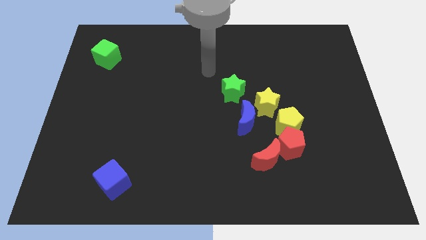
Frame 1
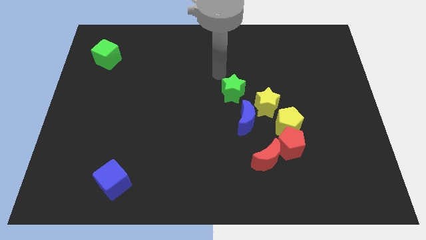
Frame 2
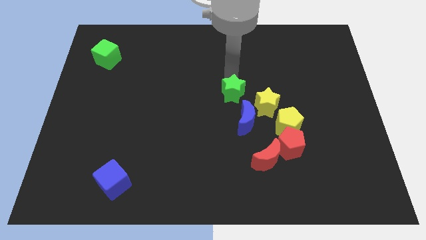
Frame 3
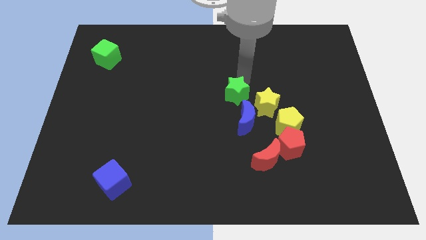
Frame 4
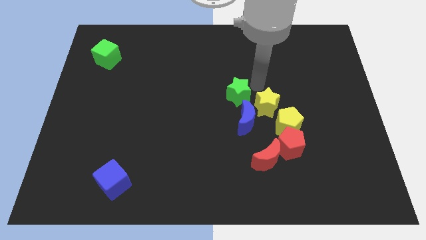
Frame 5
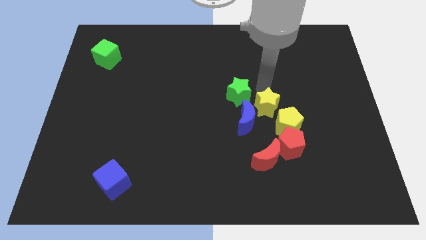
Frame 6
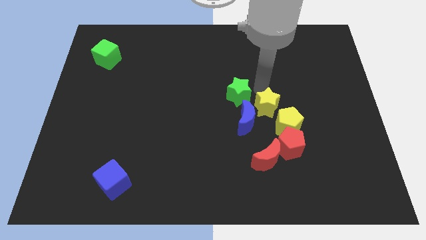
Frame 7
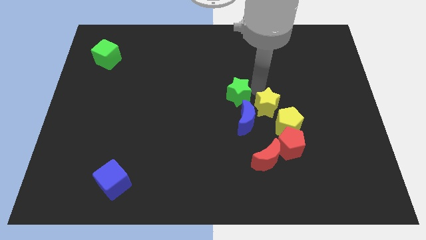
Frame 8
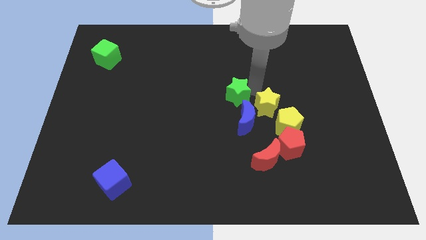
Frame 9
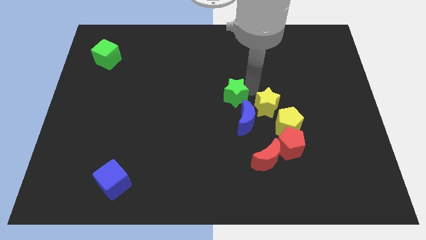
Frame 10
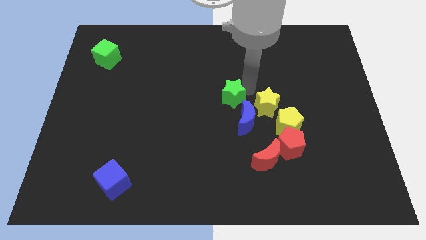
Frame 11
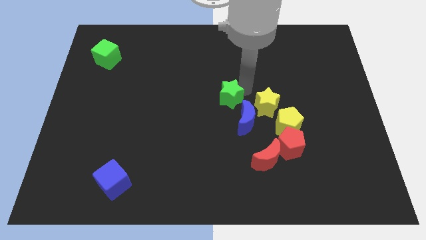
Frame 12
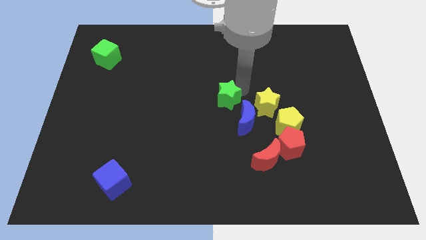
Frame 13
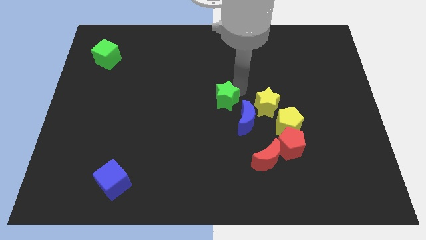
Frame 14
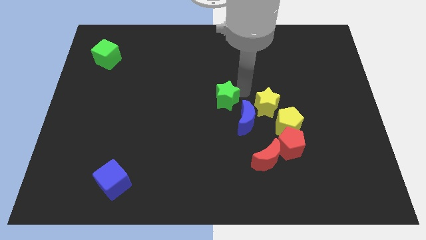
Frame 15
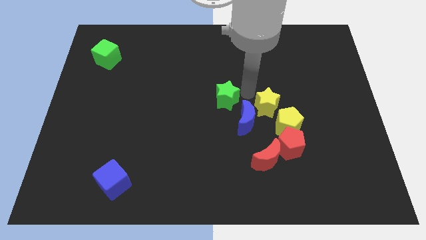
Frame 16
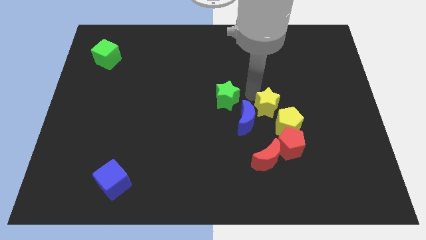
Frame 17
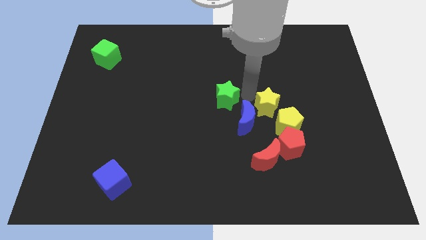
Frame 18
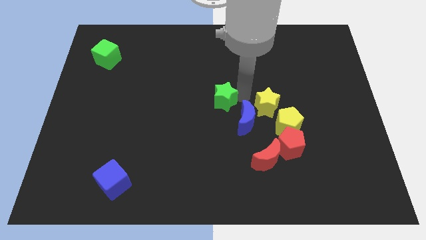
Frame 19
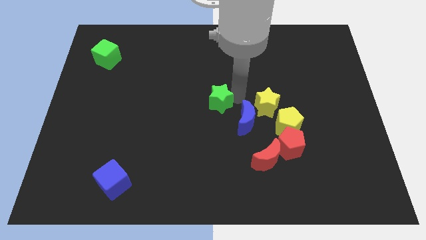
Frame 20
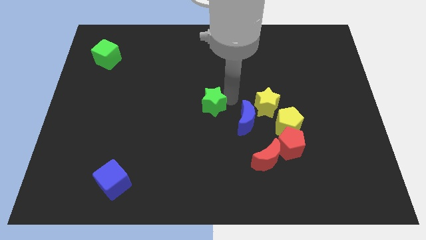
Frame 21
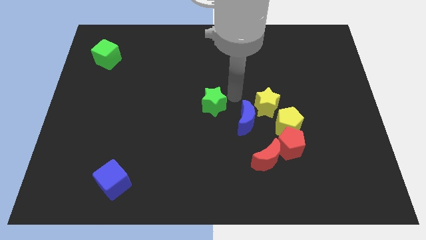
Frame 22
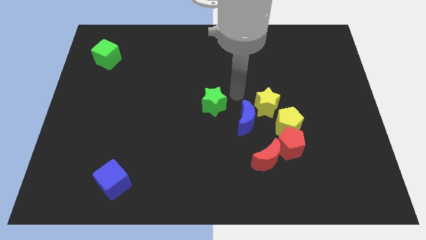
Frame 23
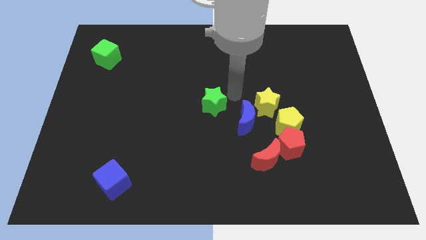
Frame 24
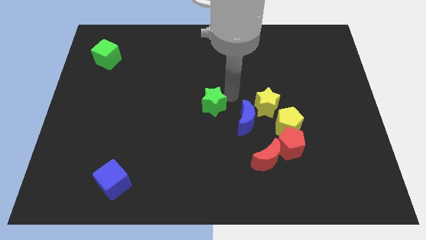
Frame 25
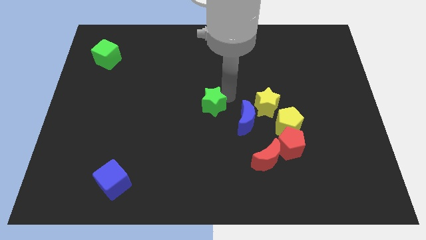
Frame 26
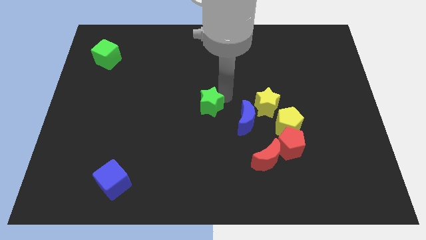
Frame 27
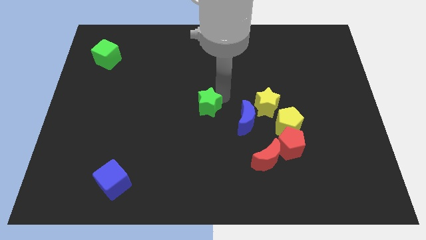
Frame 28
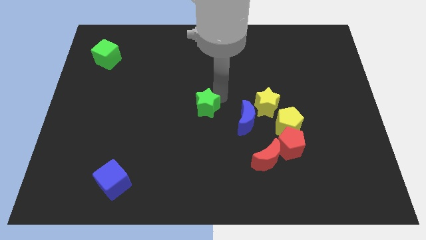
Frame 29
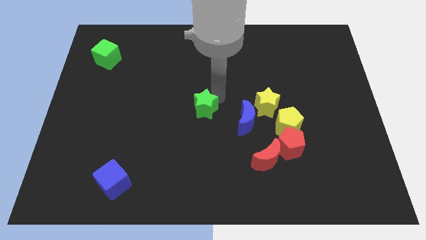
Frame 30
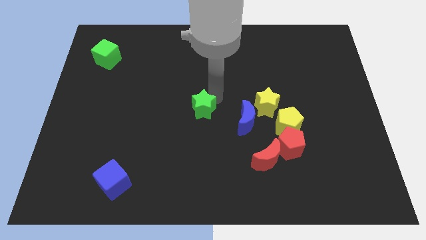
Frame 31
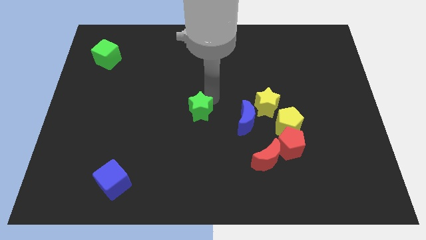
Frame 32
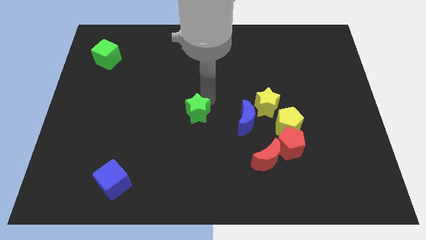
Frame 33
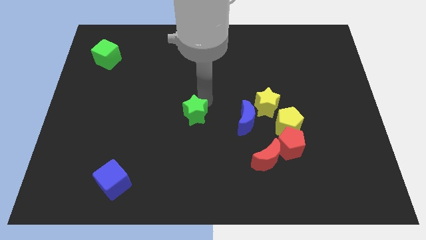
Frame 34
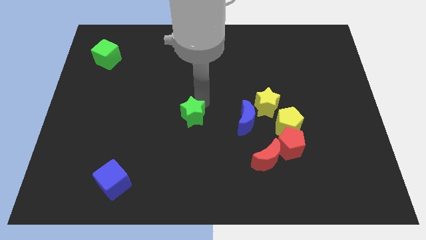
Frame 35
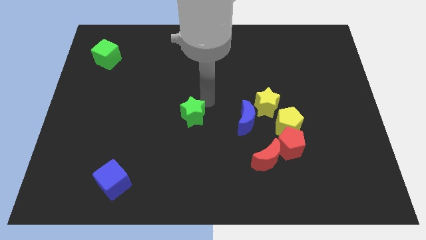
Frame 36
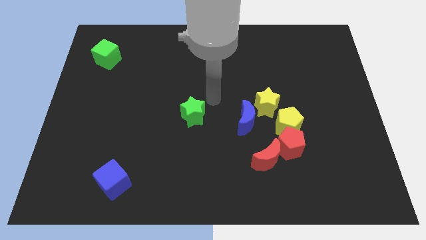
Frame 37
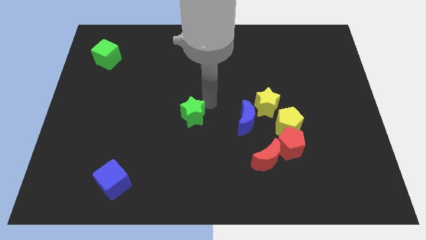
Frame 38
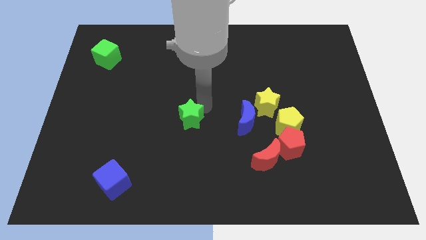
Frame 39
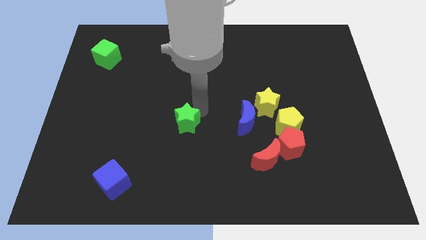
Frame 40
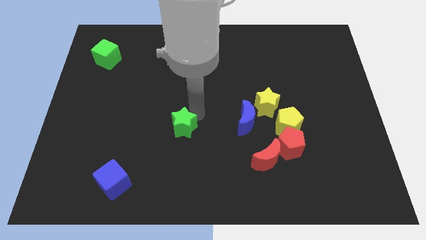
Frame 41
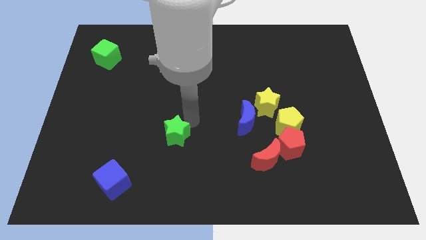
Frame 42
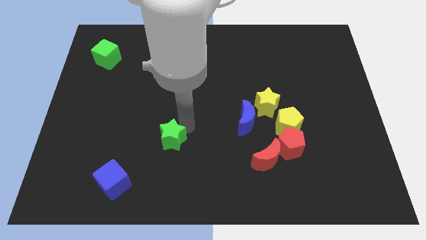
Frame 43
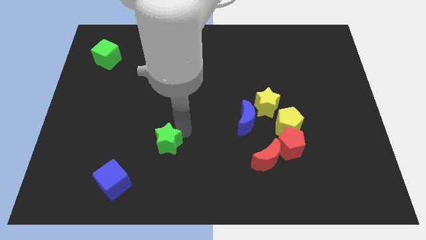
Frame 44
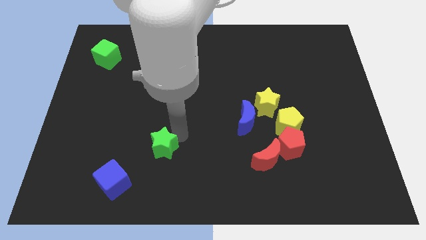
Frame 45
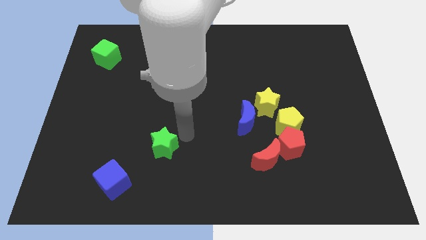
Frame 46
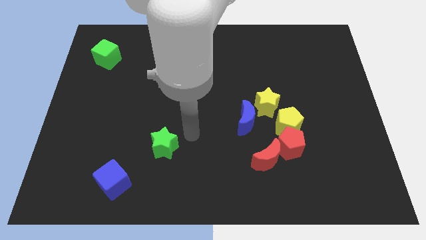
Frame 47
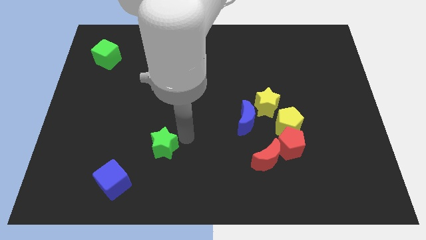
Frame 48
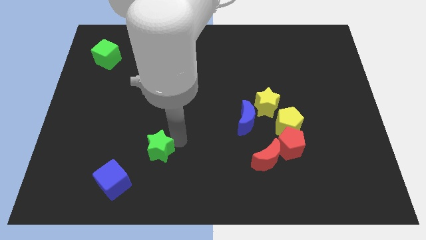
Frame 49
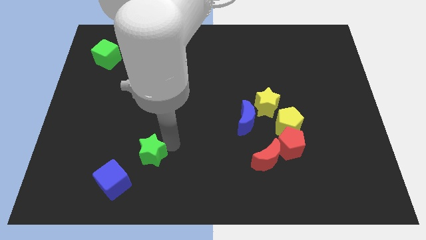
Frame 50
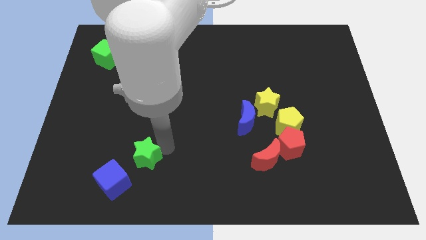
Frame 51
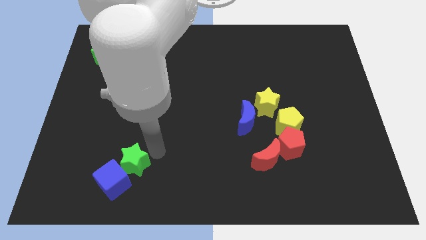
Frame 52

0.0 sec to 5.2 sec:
slide the green star next to the blue cube

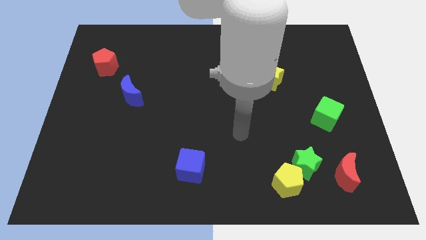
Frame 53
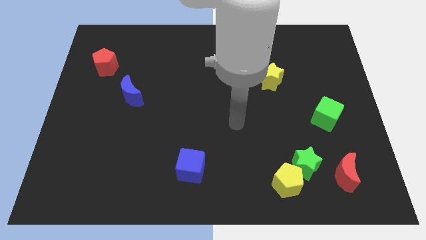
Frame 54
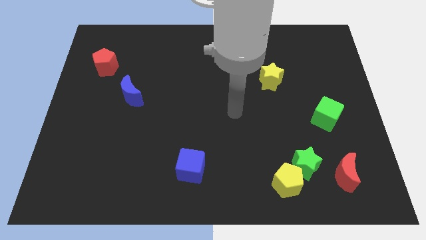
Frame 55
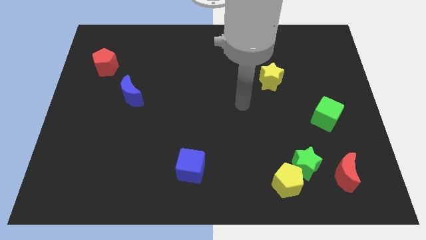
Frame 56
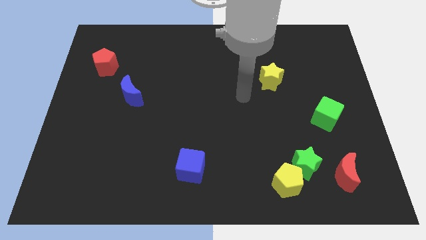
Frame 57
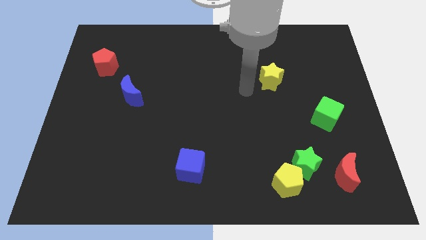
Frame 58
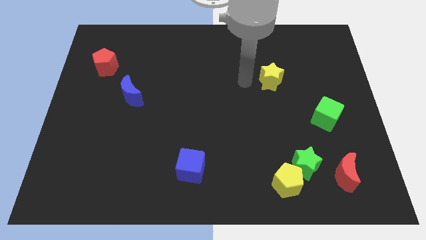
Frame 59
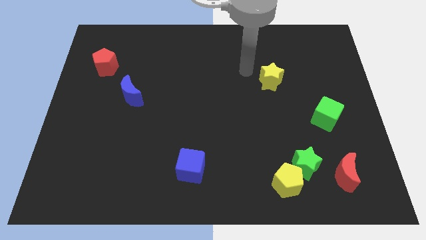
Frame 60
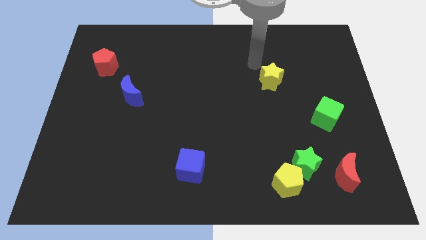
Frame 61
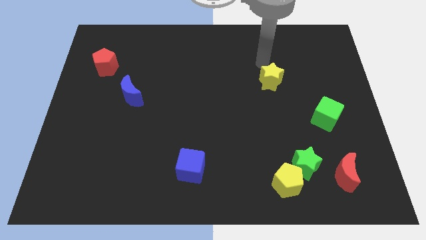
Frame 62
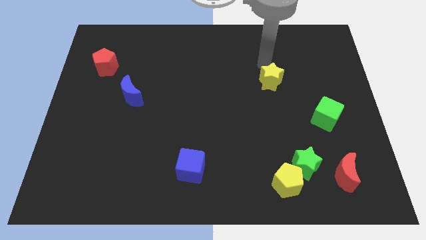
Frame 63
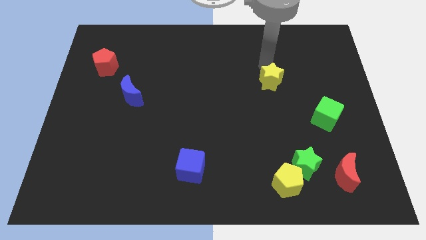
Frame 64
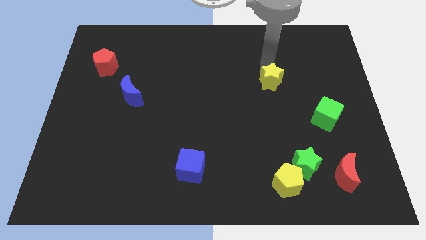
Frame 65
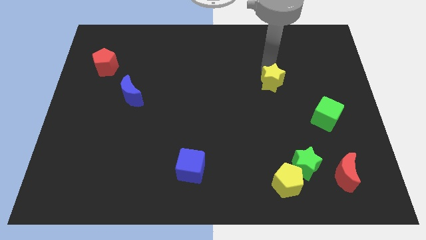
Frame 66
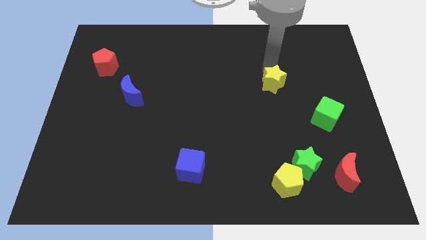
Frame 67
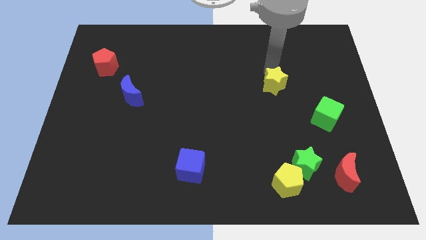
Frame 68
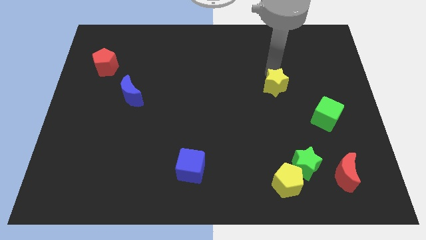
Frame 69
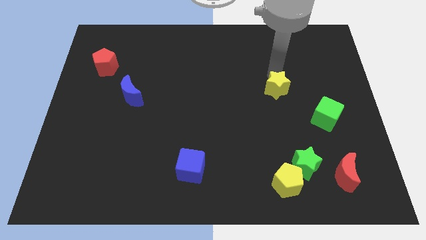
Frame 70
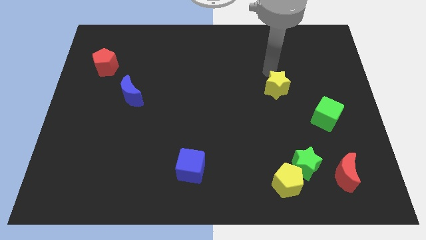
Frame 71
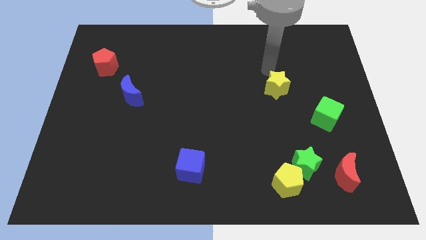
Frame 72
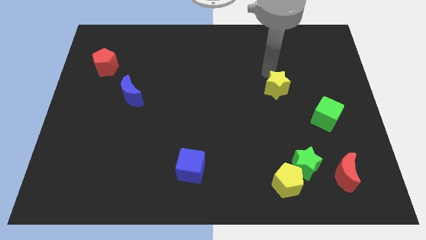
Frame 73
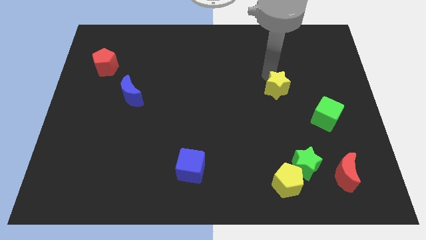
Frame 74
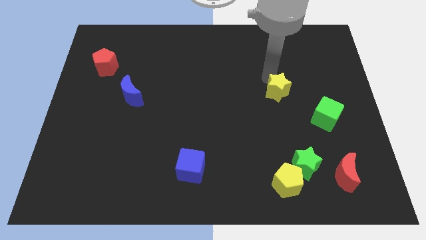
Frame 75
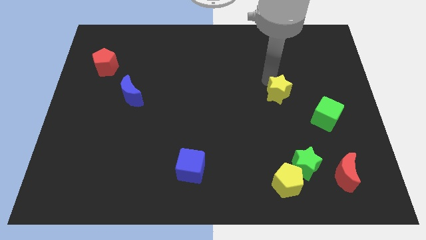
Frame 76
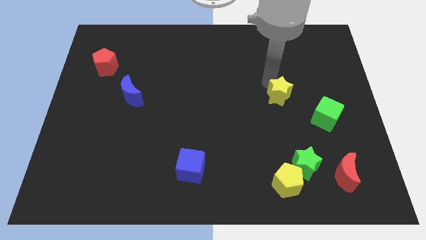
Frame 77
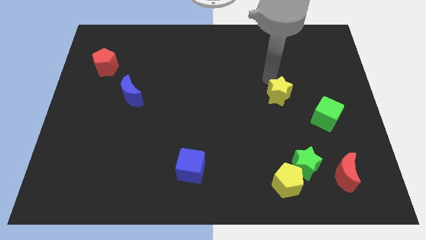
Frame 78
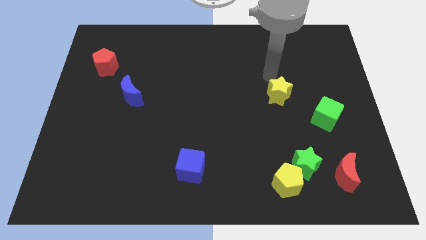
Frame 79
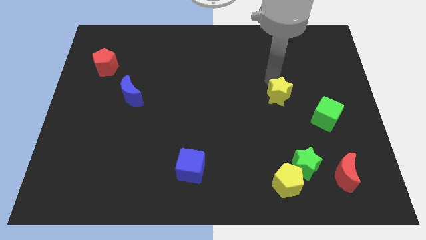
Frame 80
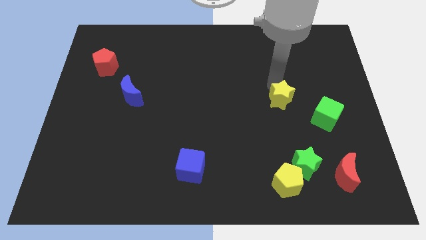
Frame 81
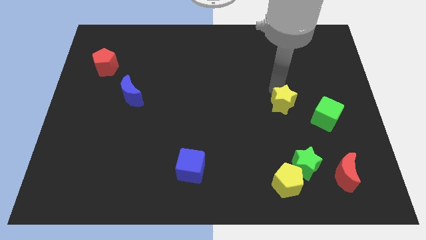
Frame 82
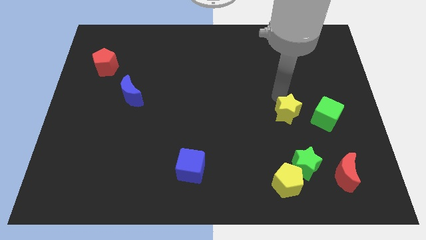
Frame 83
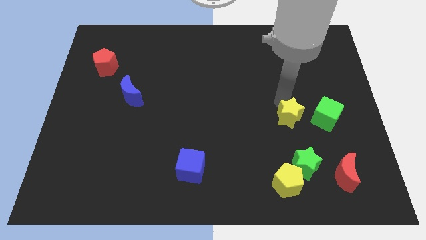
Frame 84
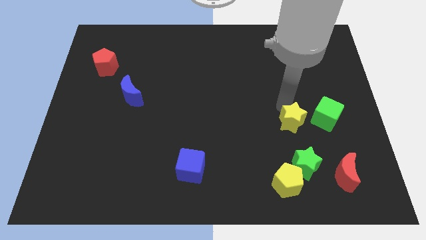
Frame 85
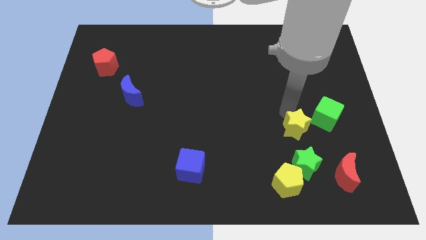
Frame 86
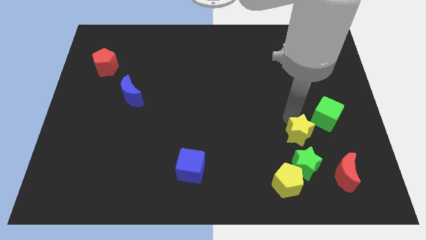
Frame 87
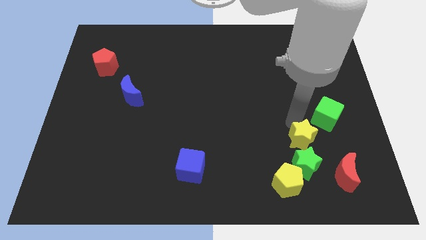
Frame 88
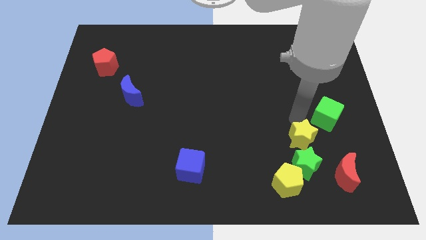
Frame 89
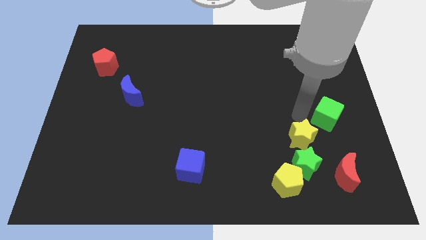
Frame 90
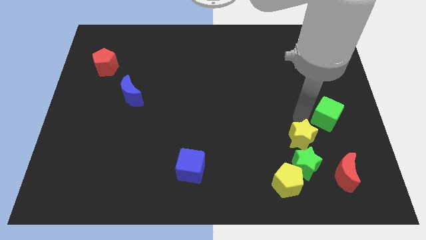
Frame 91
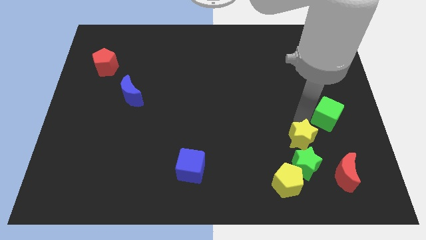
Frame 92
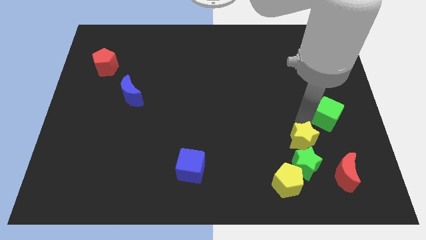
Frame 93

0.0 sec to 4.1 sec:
push the yellow star to the green star
